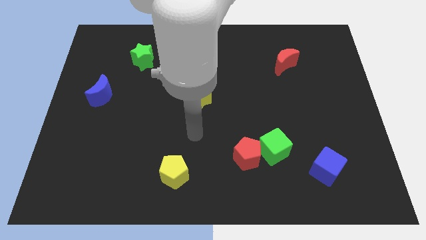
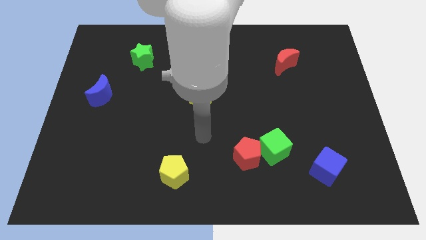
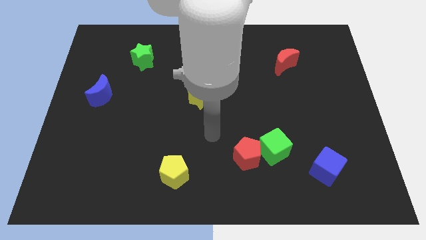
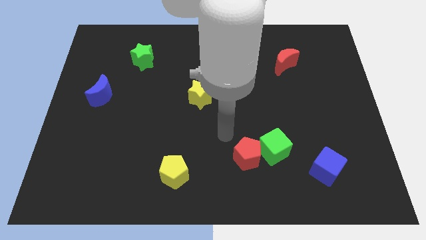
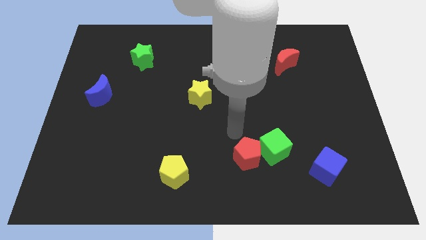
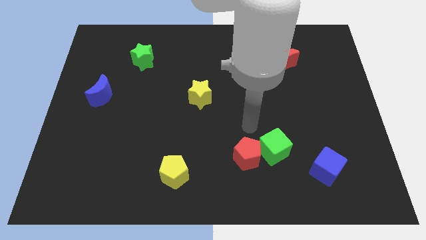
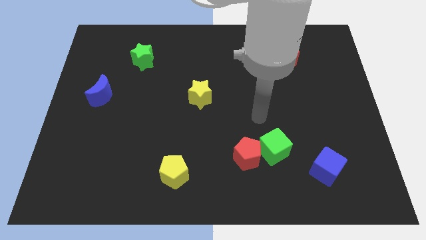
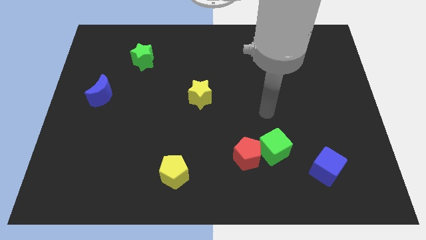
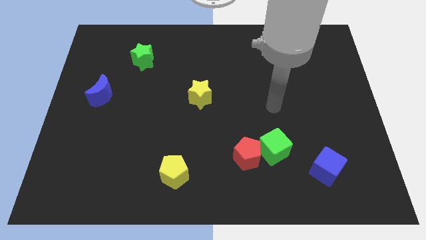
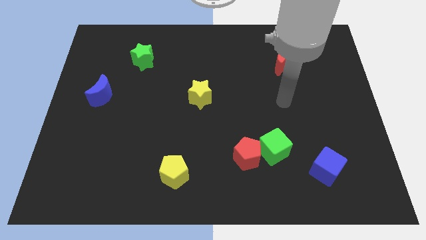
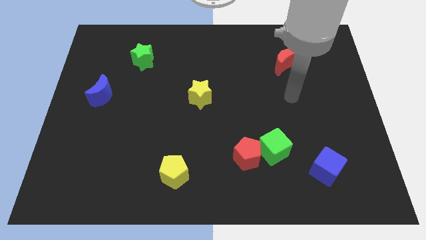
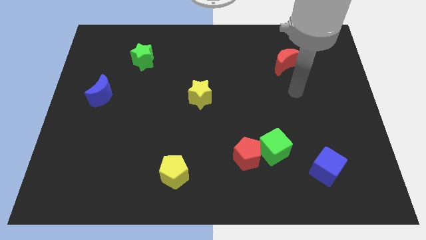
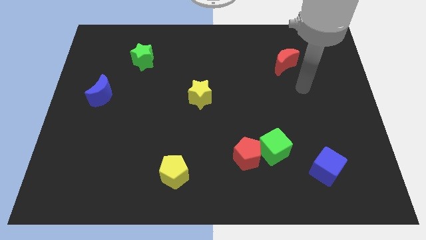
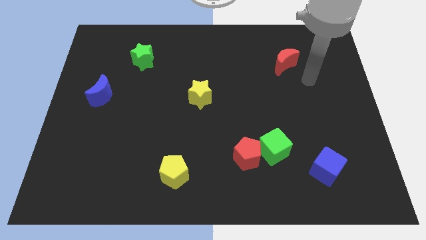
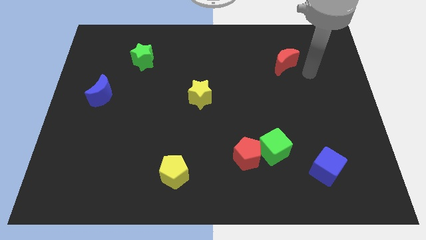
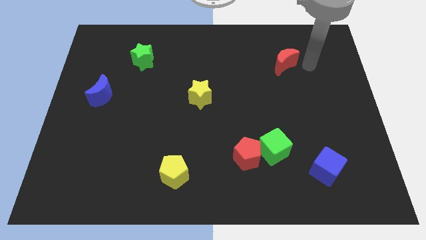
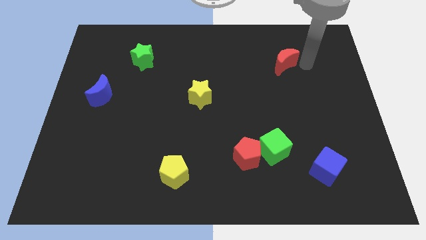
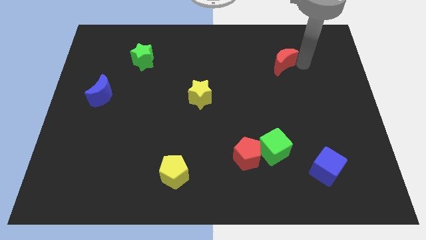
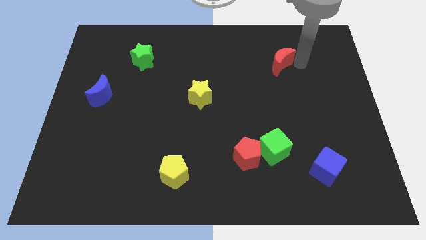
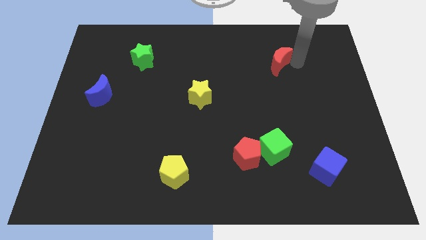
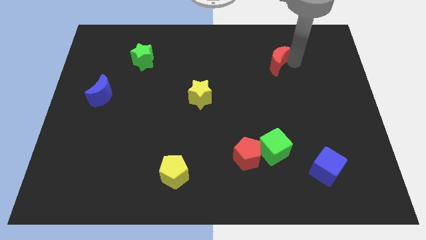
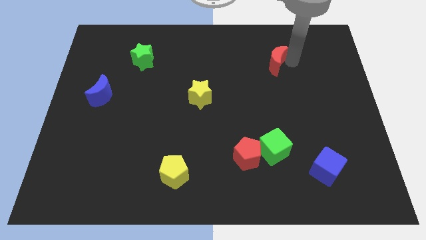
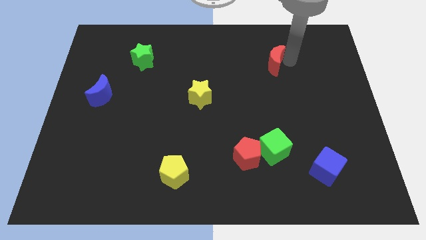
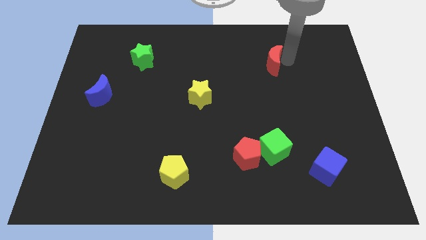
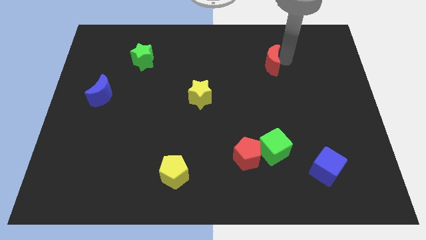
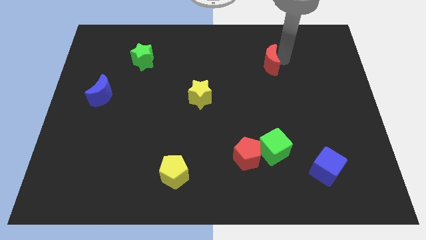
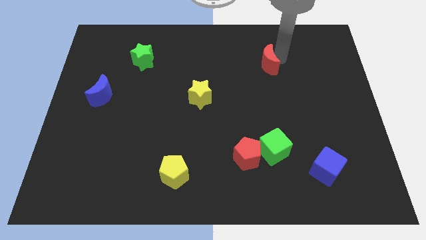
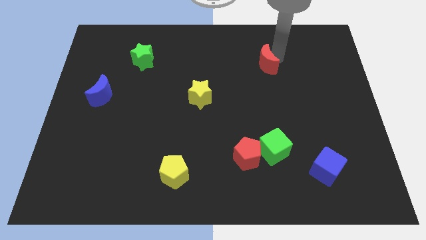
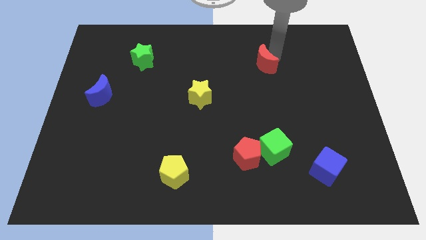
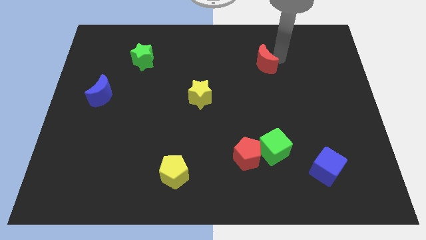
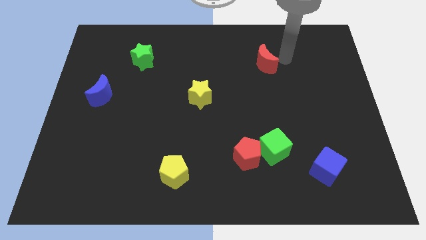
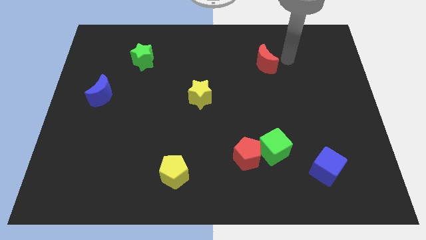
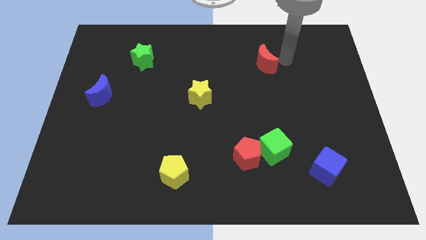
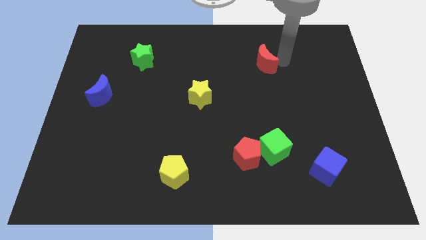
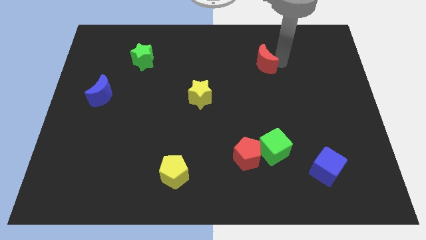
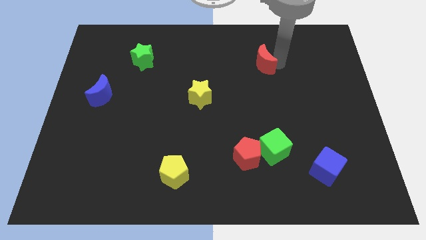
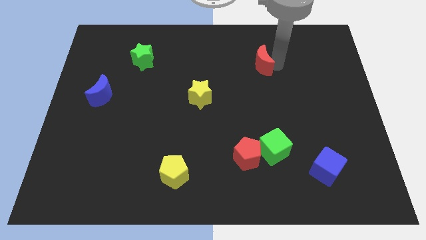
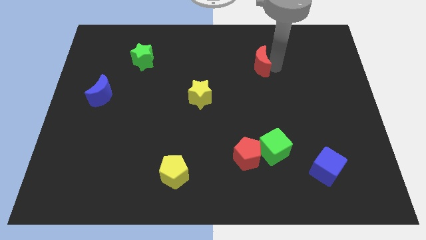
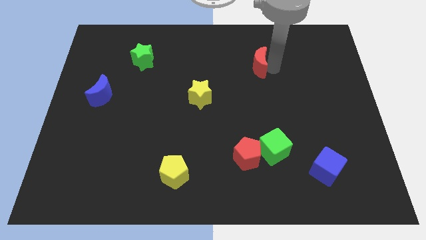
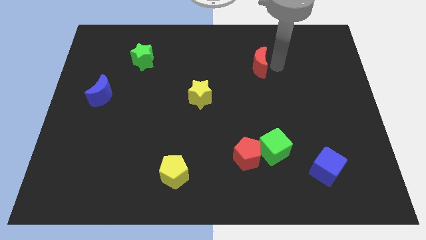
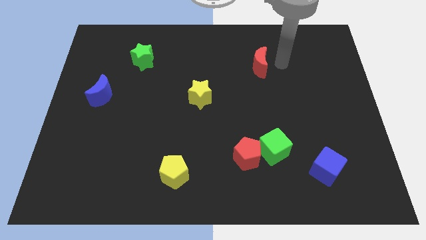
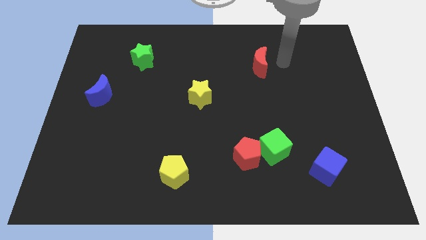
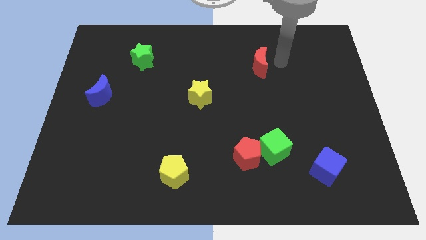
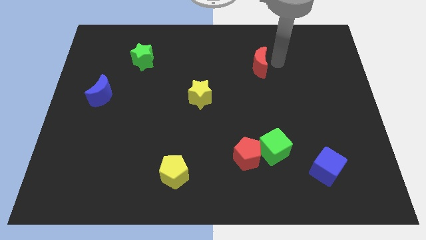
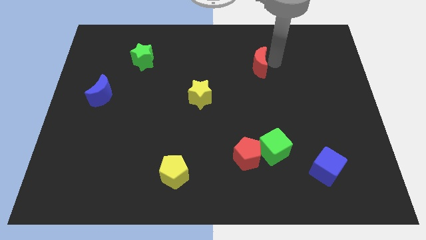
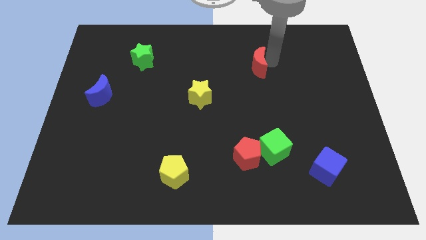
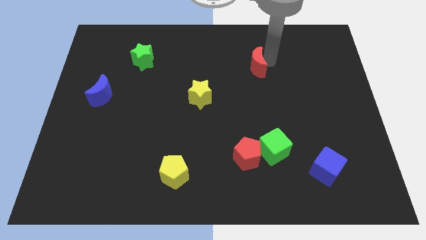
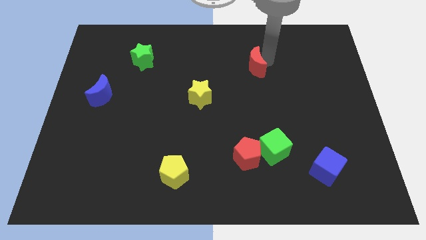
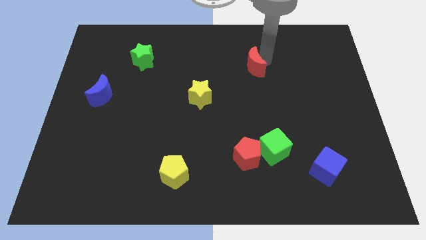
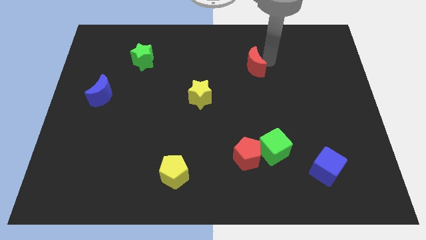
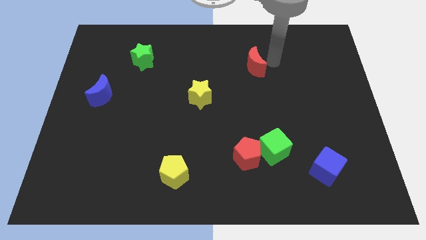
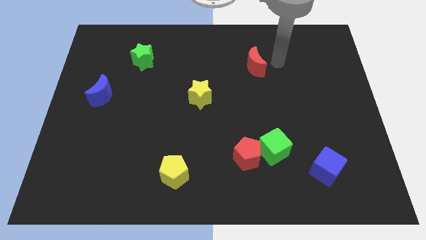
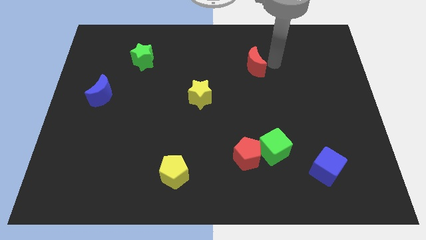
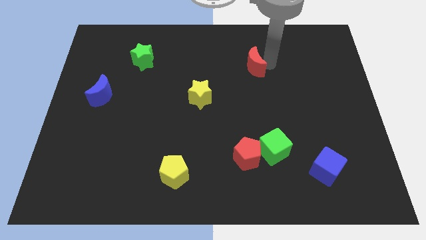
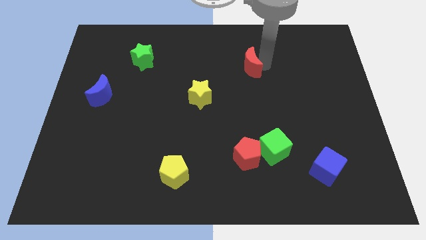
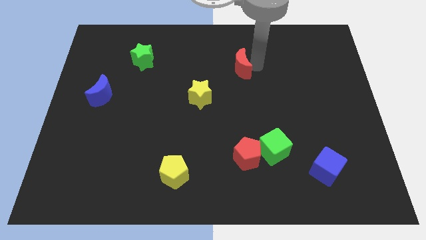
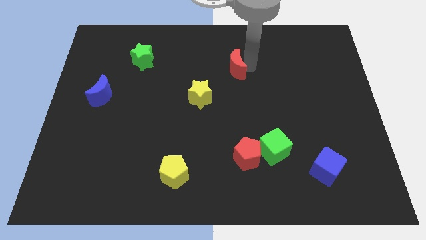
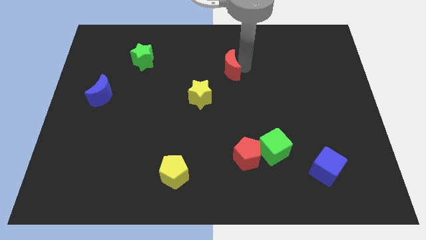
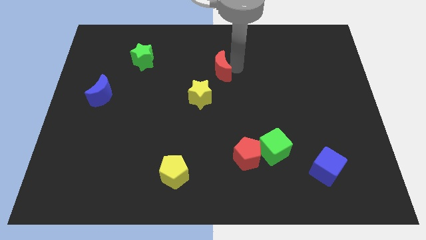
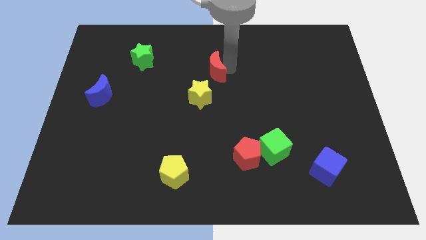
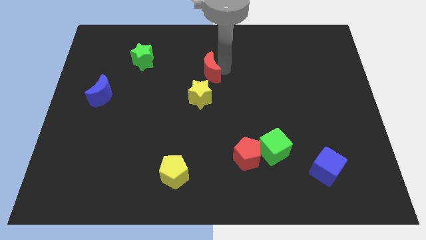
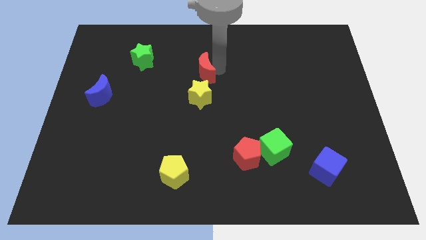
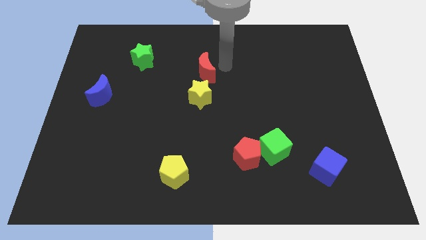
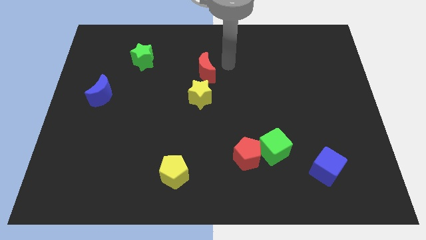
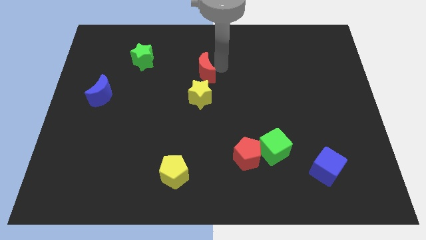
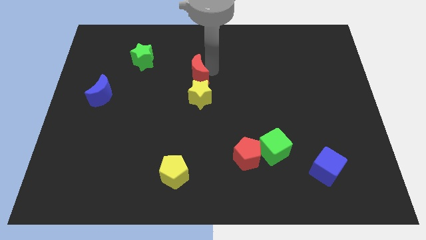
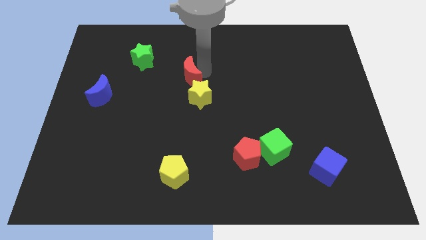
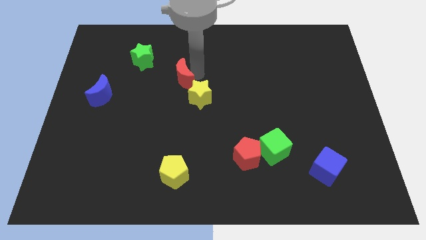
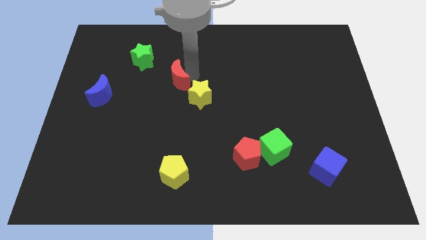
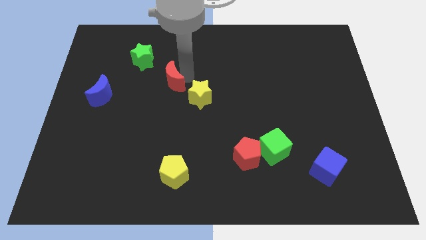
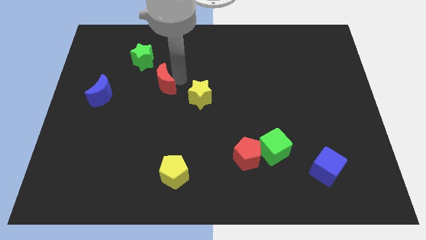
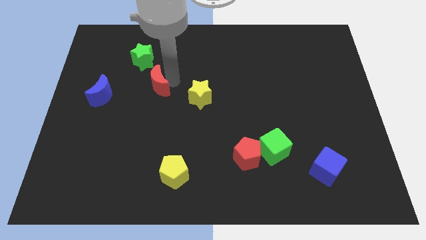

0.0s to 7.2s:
put the red moon to the bottom of the green star

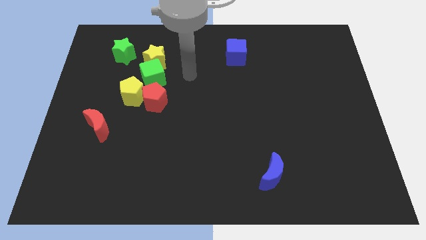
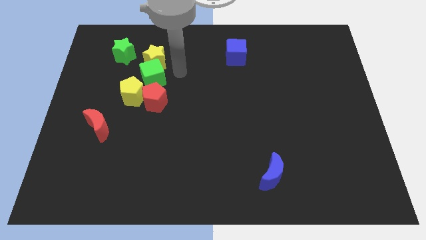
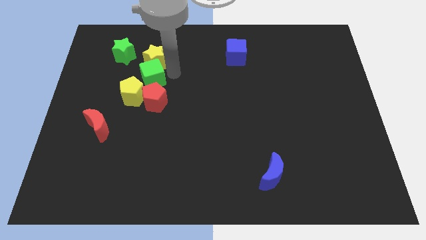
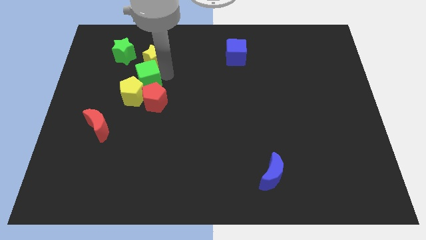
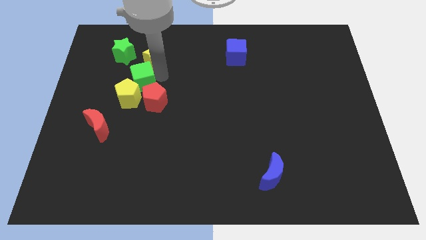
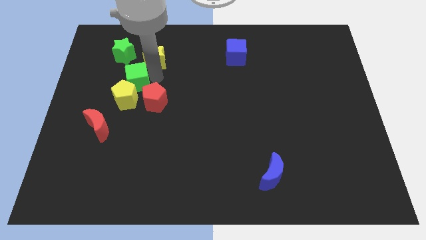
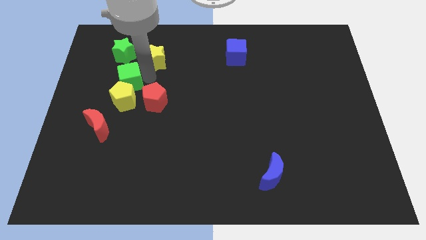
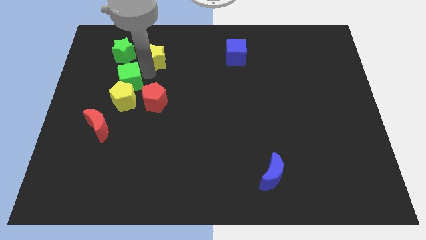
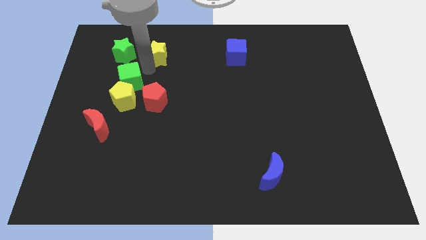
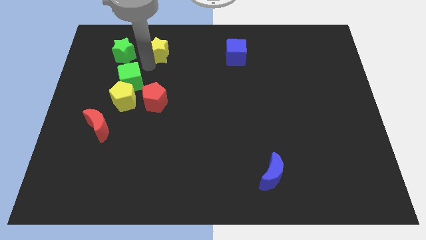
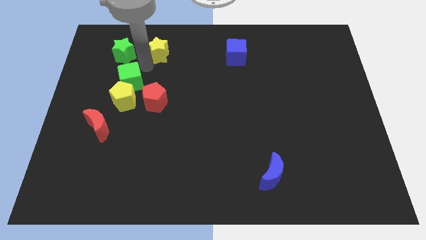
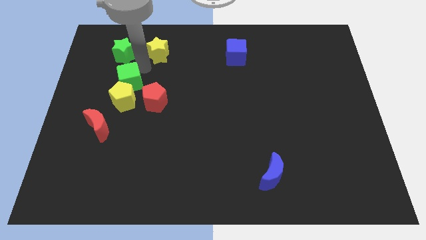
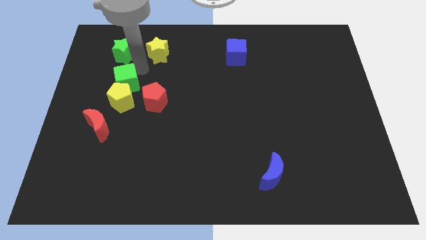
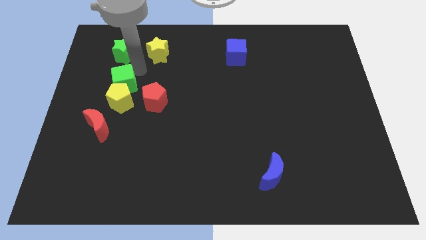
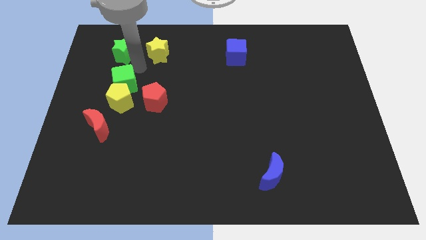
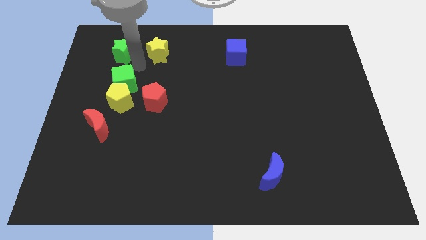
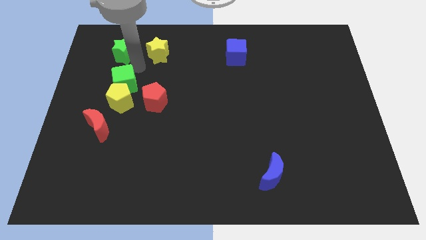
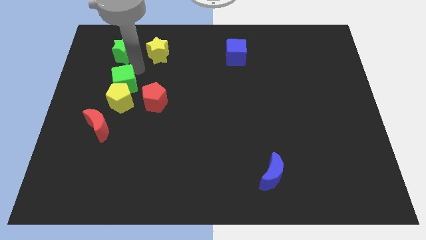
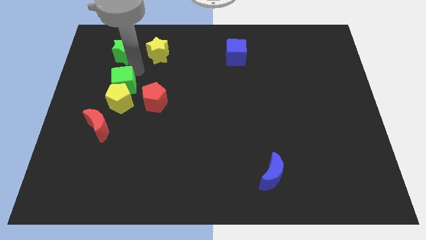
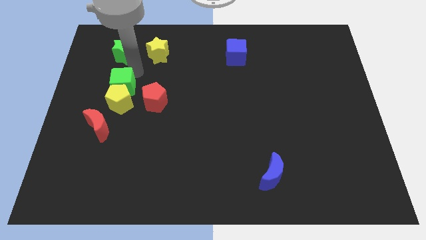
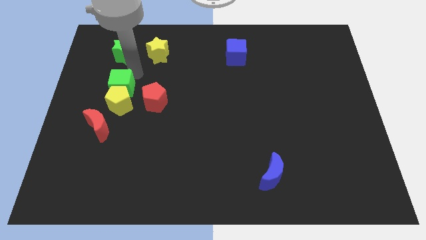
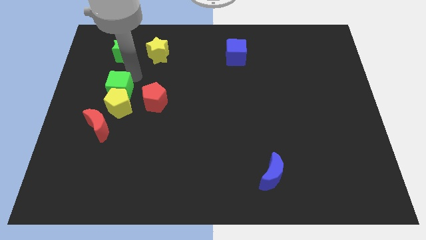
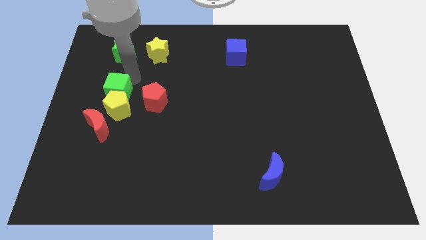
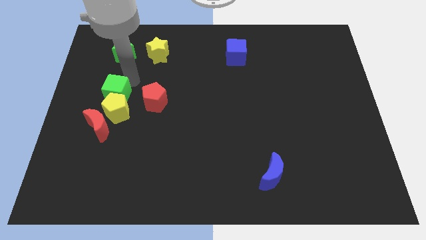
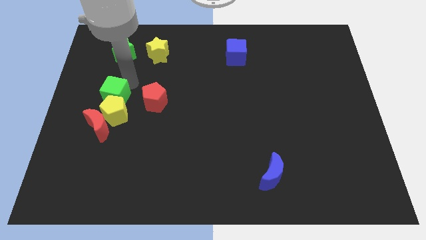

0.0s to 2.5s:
put the green cube to the top right side of the red moon
